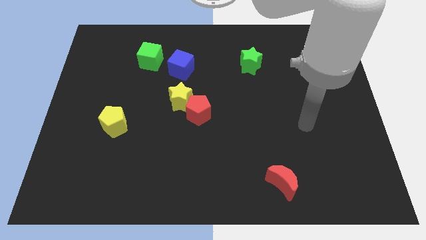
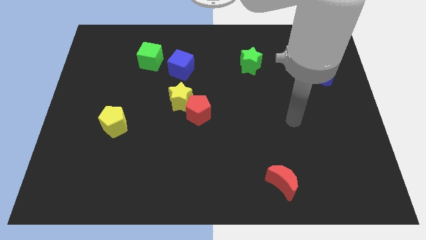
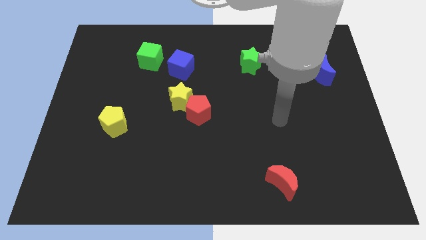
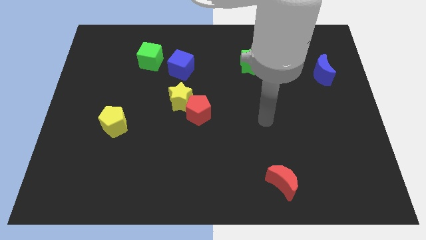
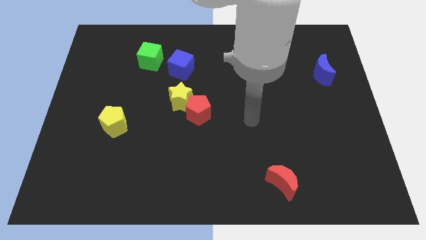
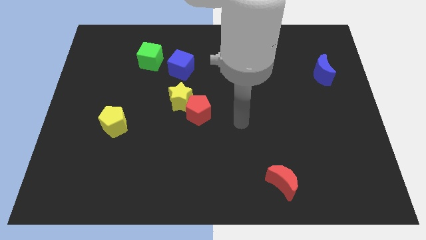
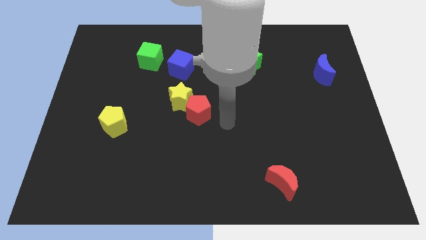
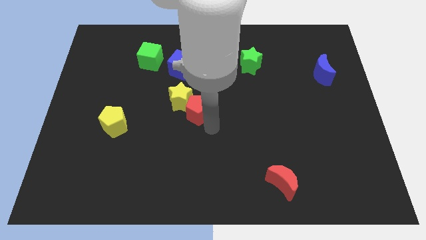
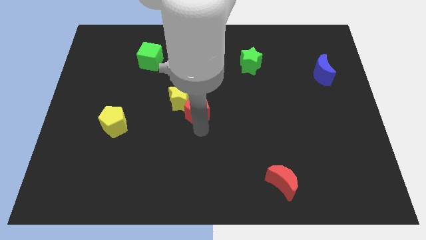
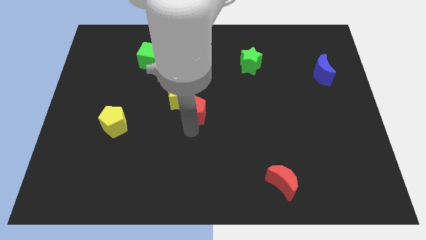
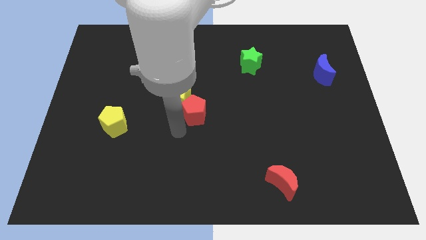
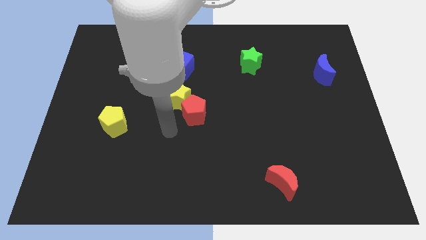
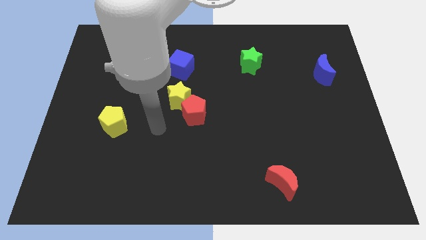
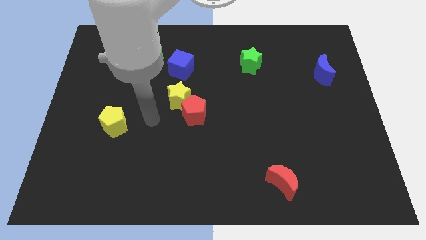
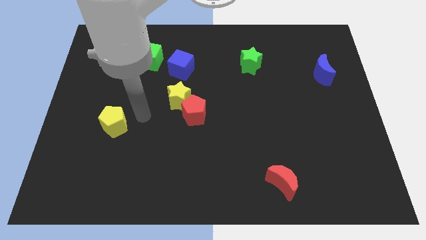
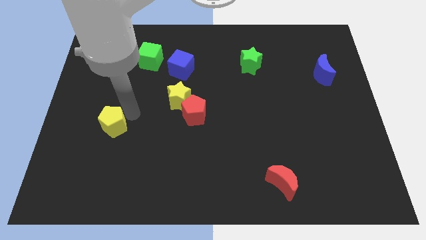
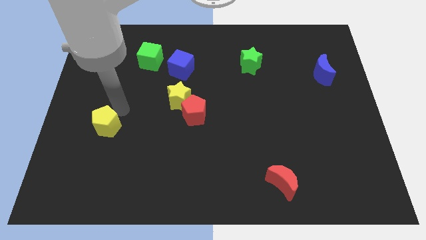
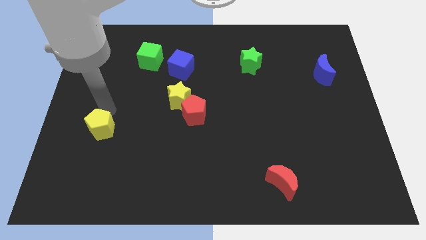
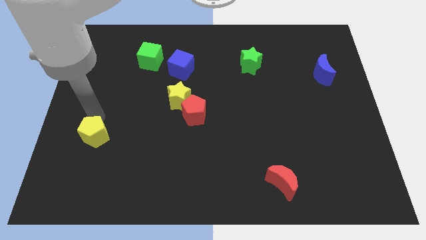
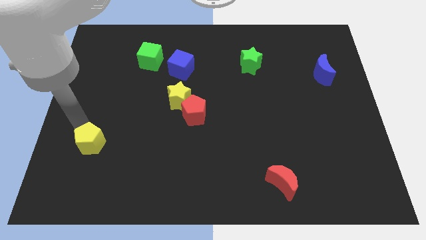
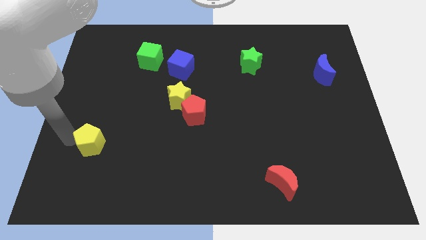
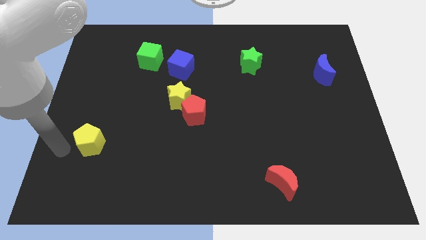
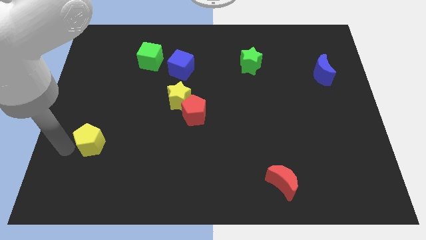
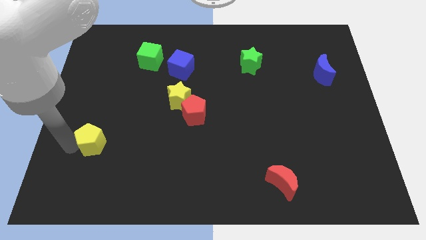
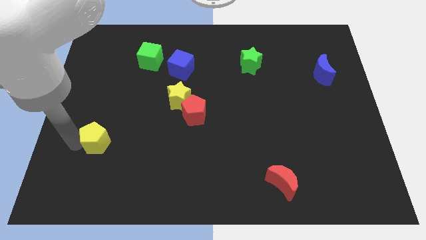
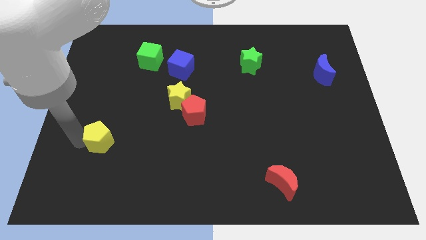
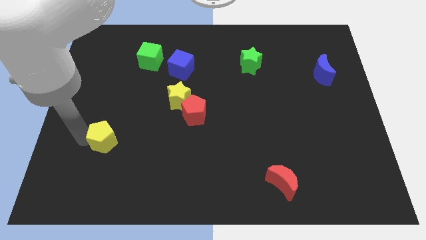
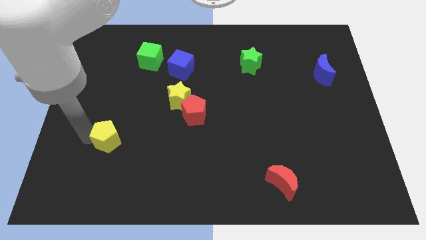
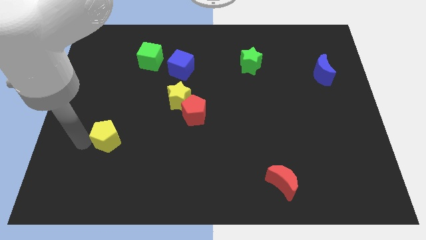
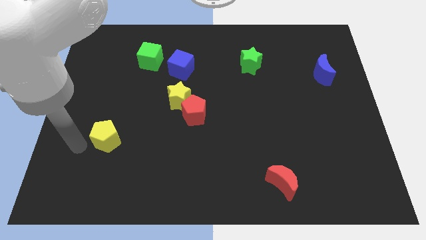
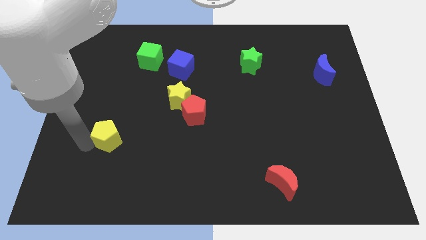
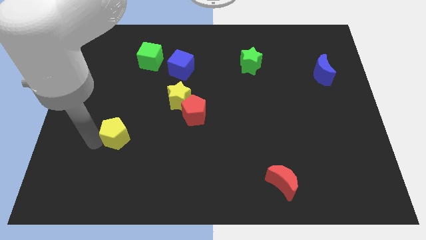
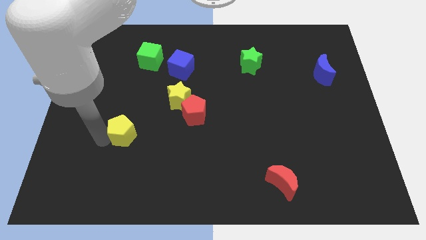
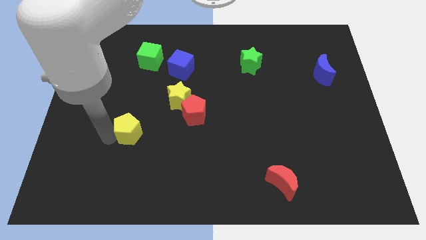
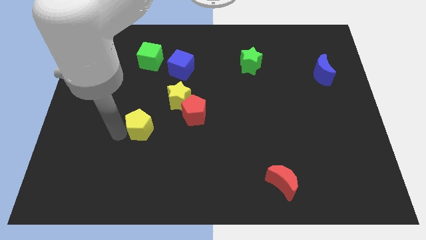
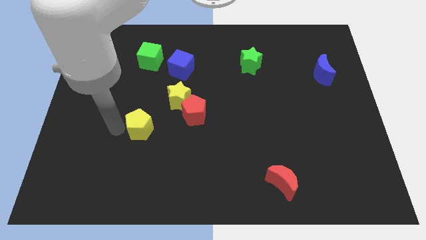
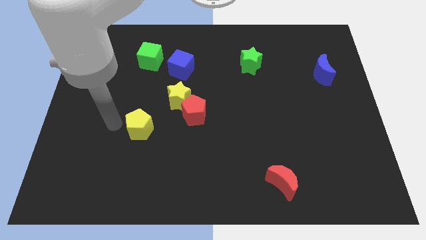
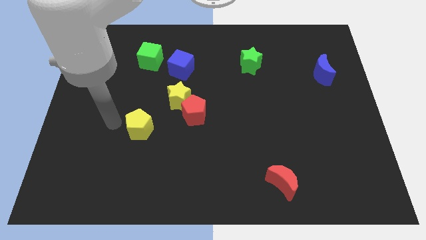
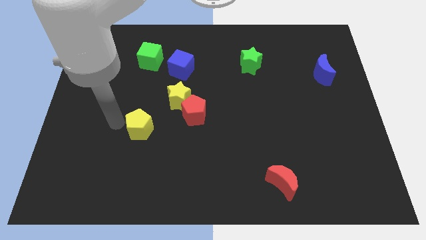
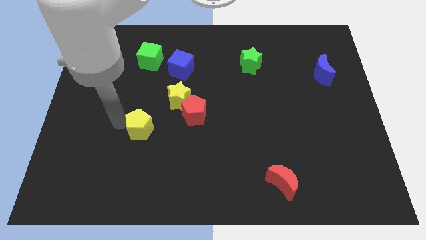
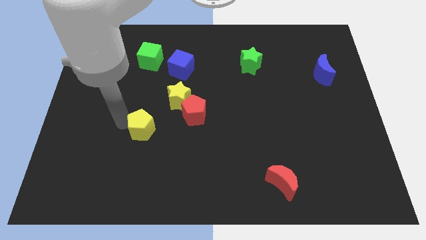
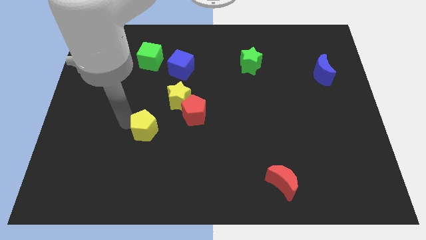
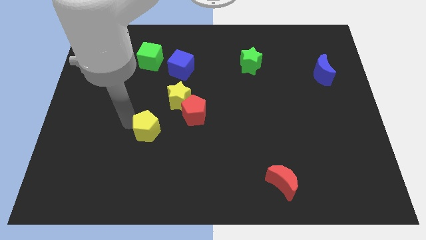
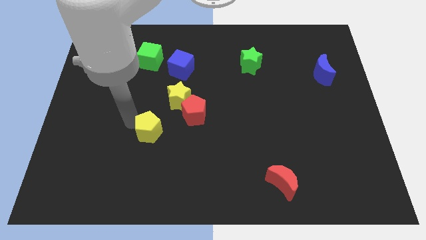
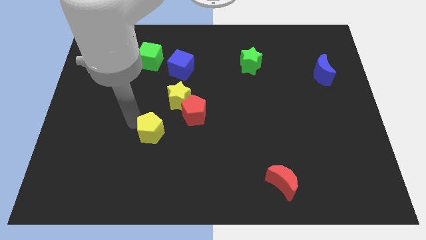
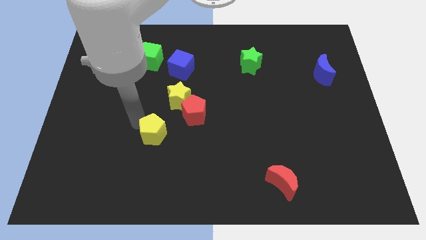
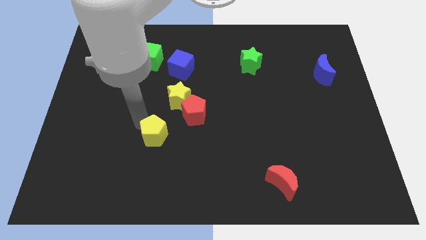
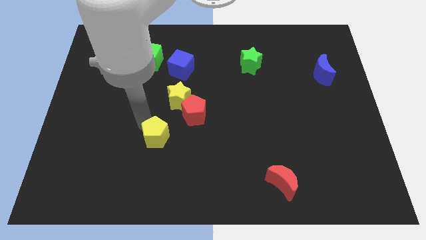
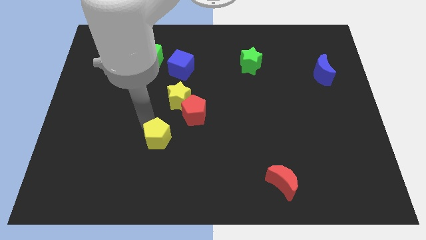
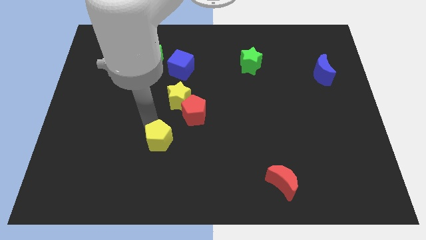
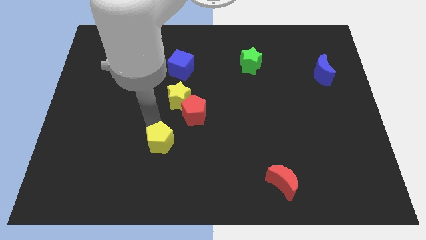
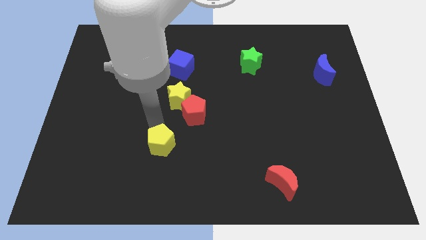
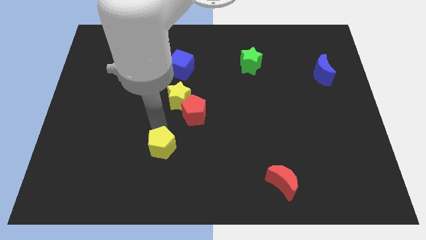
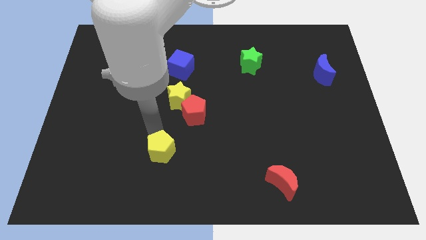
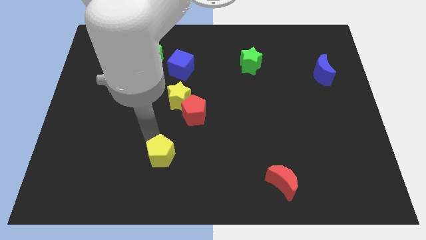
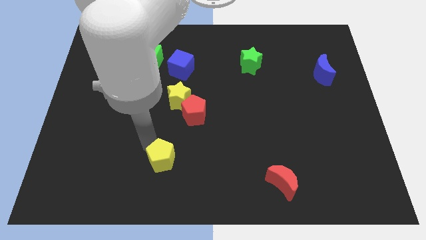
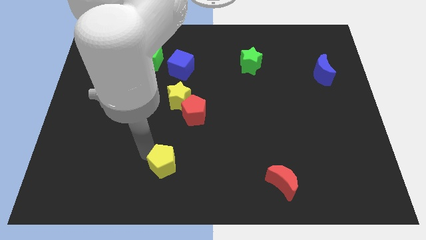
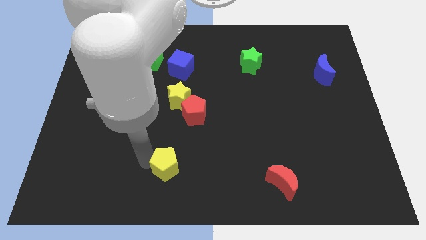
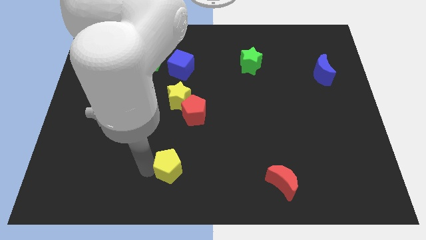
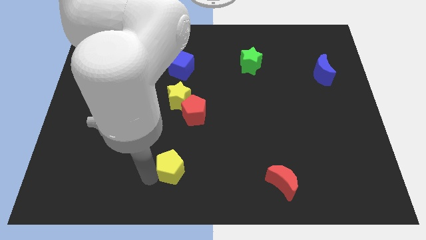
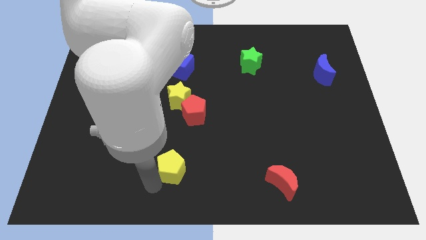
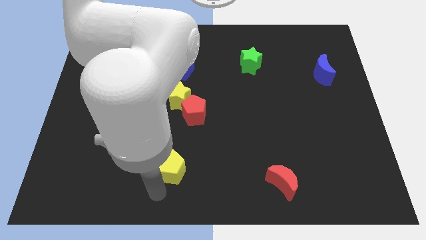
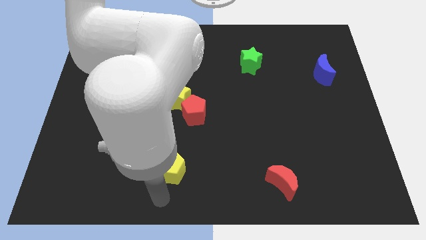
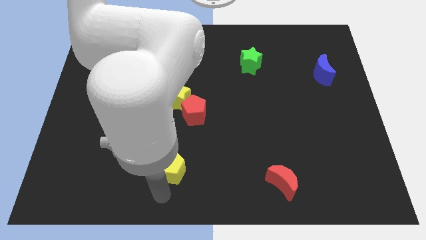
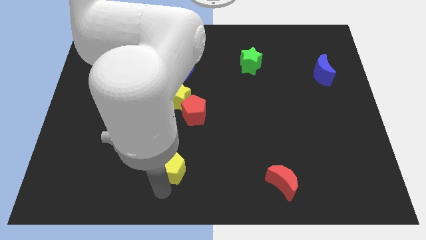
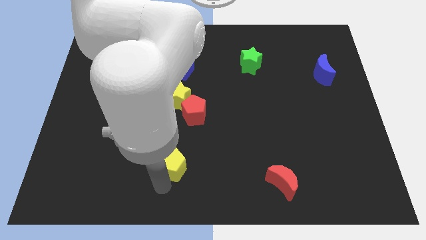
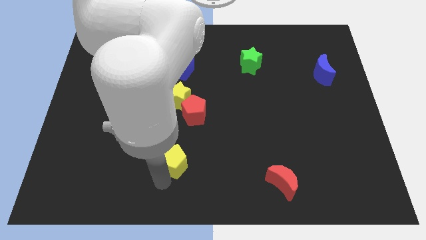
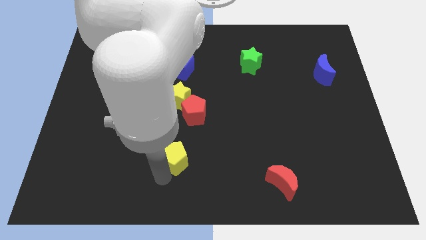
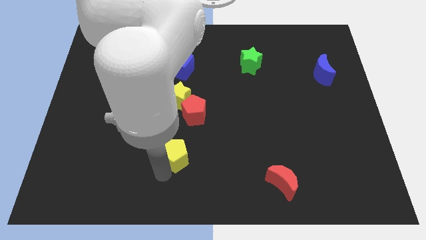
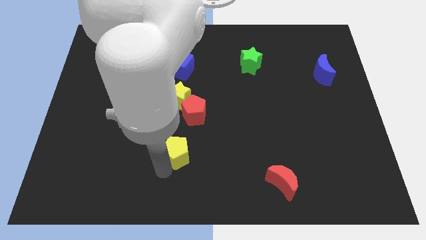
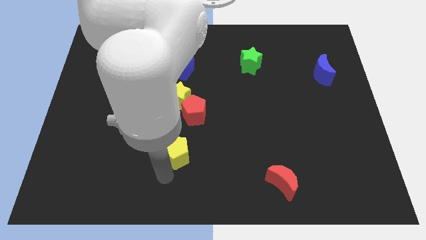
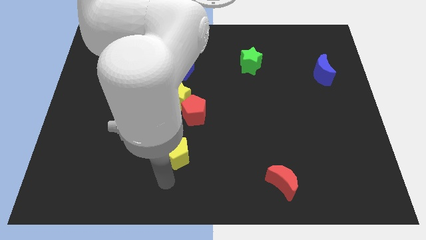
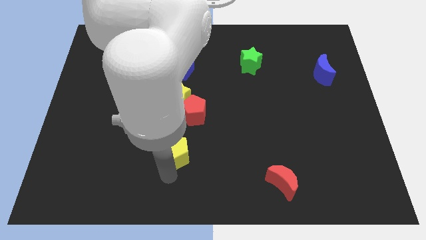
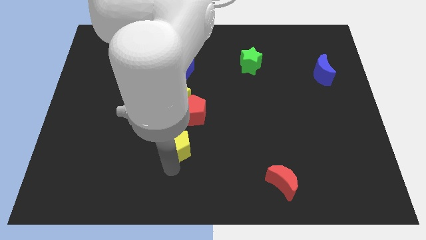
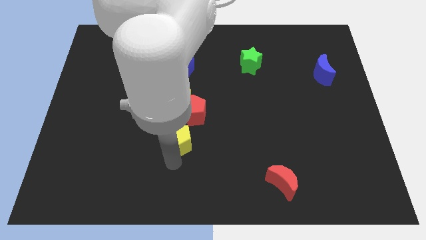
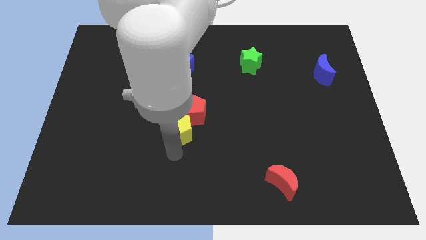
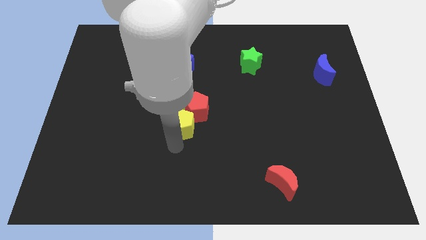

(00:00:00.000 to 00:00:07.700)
slide the yellow pentagon to the bottom right of the yellow star
